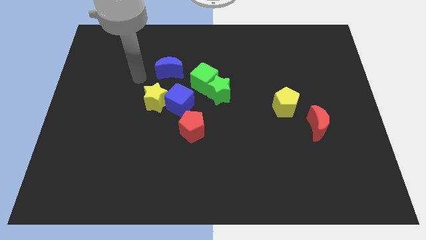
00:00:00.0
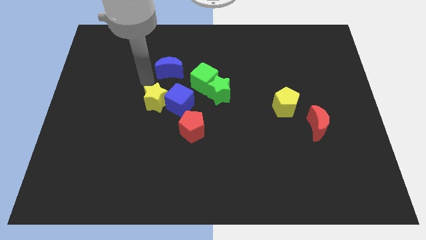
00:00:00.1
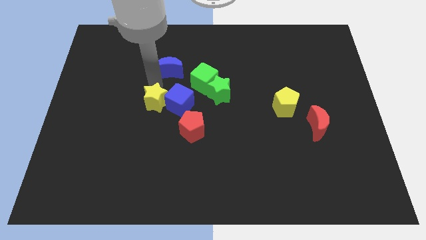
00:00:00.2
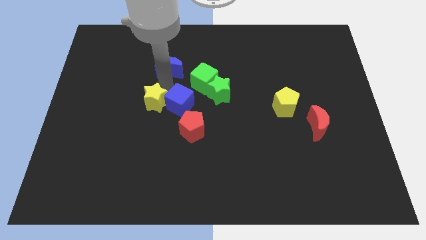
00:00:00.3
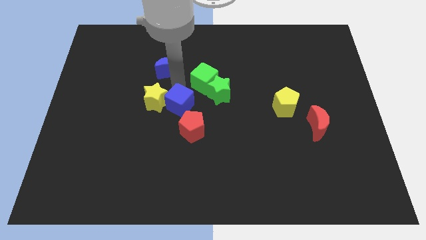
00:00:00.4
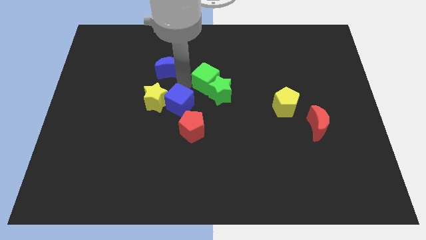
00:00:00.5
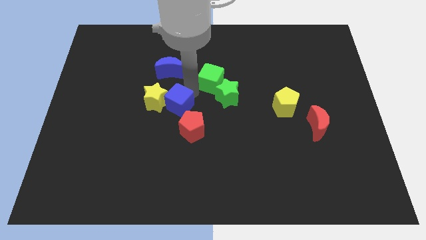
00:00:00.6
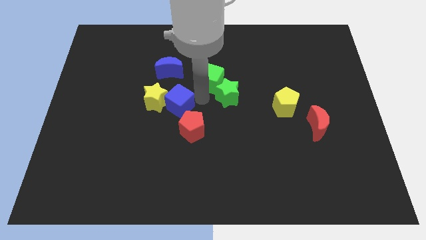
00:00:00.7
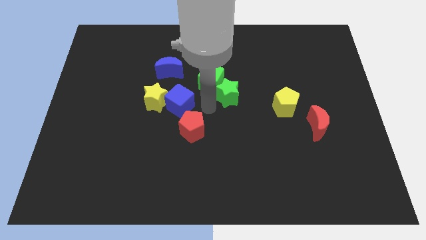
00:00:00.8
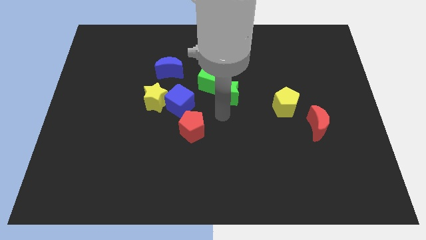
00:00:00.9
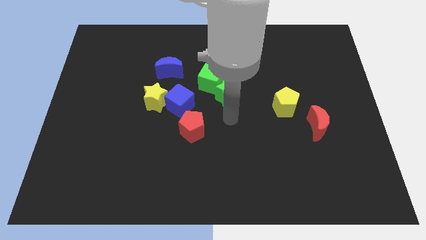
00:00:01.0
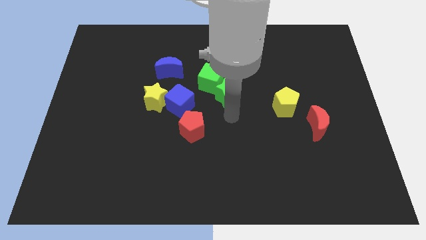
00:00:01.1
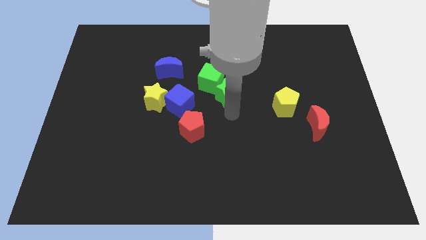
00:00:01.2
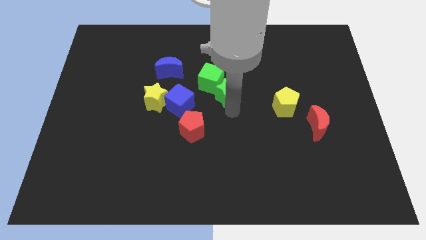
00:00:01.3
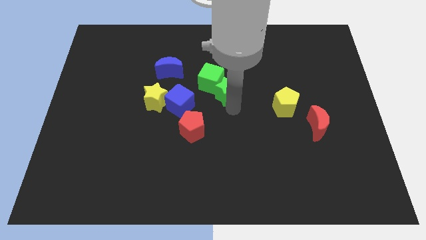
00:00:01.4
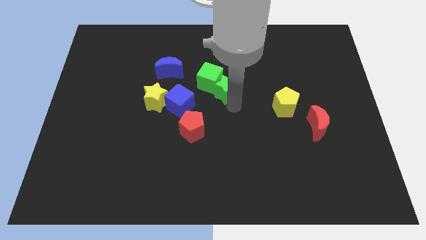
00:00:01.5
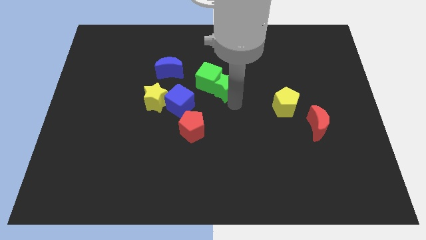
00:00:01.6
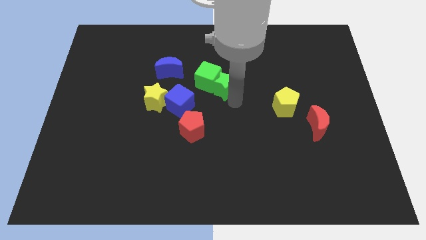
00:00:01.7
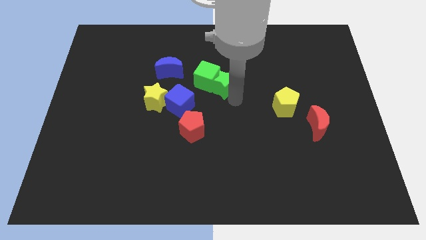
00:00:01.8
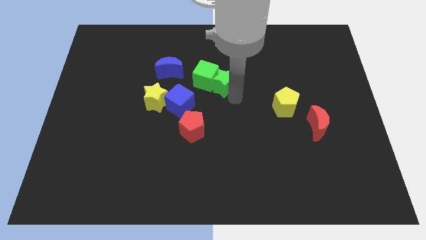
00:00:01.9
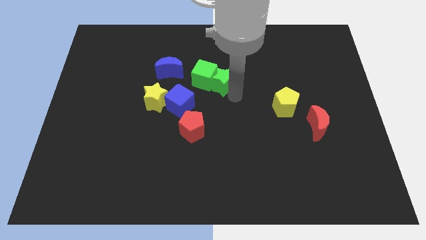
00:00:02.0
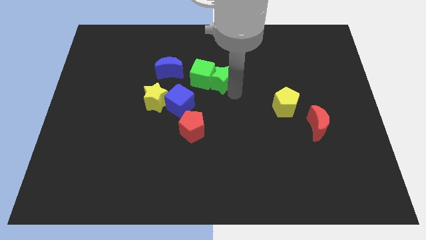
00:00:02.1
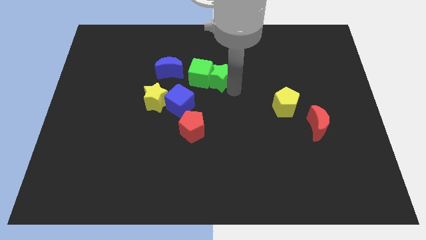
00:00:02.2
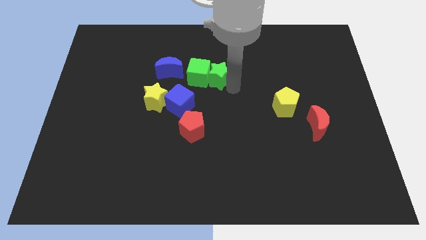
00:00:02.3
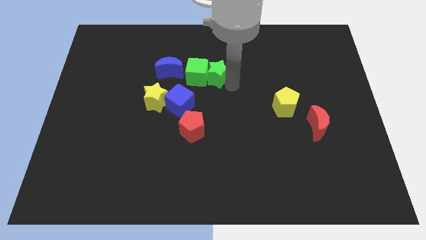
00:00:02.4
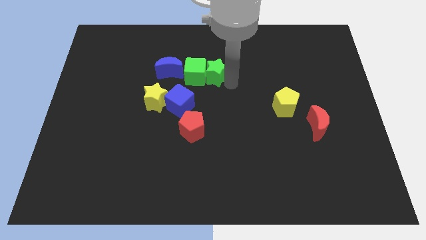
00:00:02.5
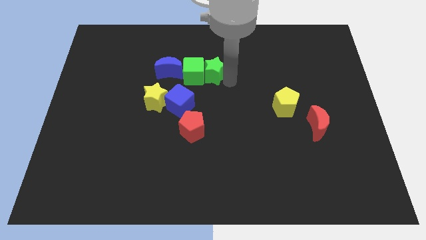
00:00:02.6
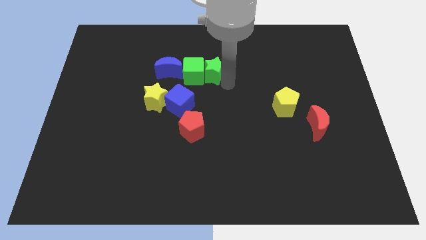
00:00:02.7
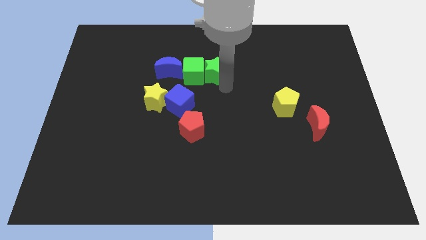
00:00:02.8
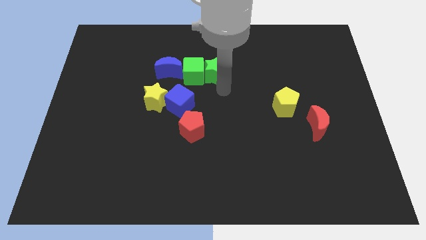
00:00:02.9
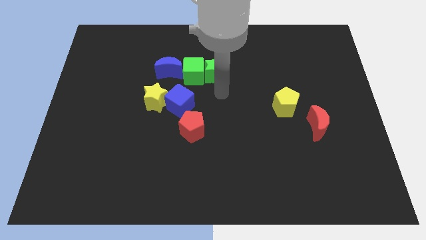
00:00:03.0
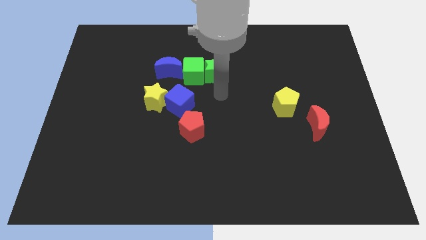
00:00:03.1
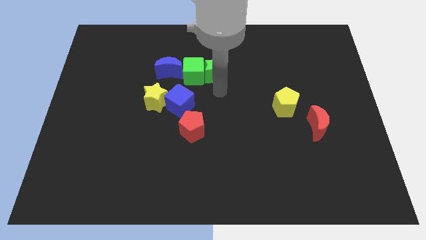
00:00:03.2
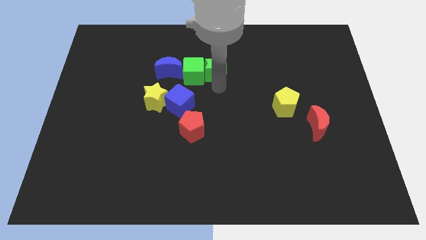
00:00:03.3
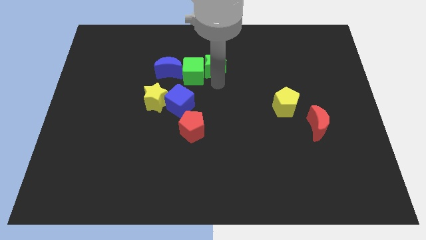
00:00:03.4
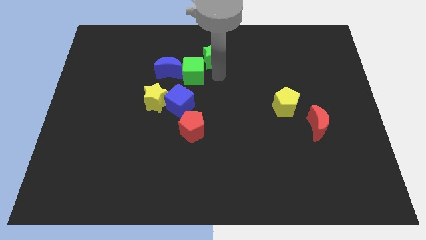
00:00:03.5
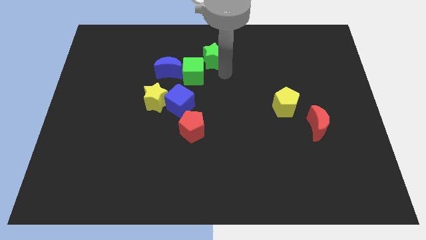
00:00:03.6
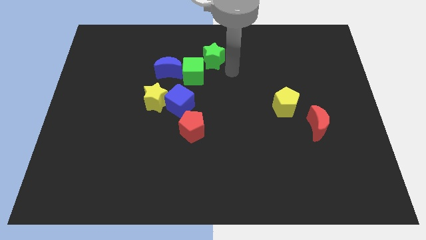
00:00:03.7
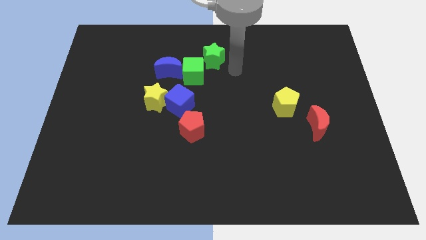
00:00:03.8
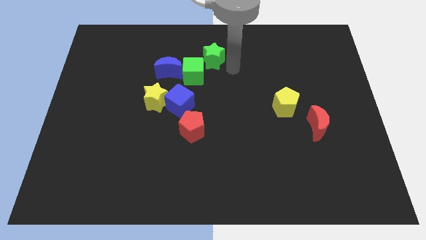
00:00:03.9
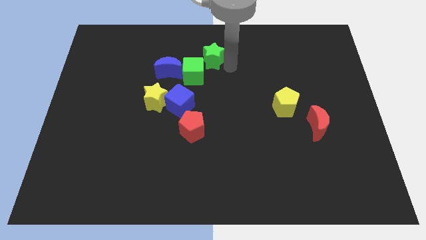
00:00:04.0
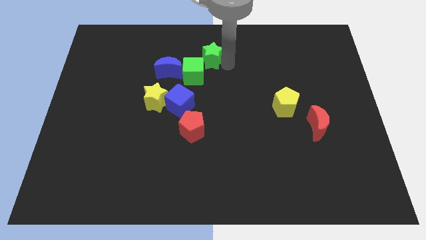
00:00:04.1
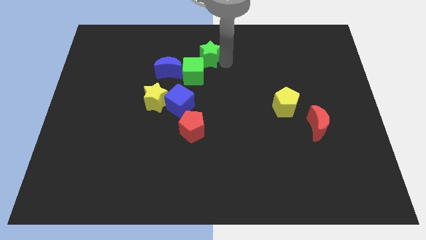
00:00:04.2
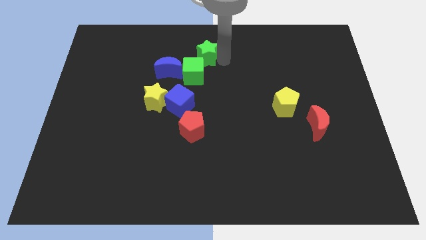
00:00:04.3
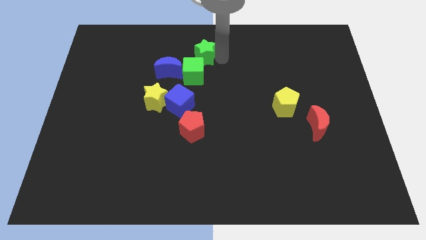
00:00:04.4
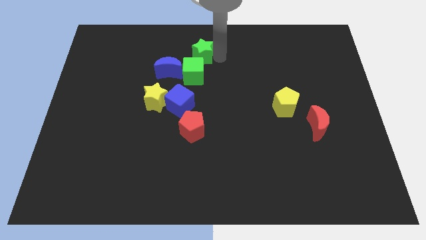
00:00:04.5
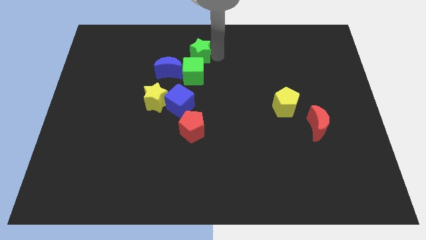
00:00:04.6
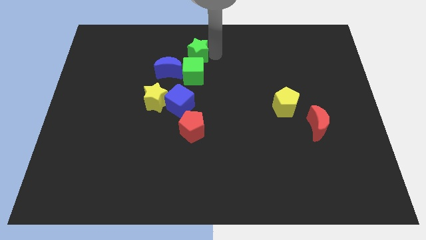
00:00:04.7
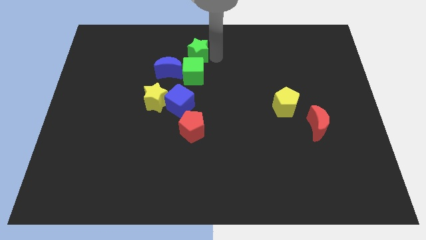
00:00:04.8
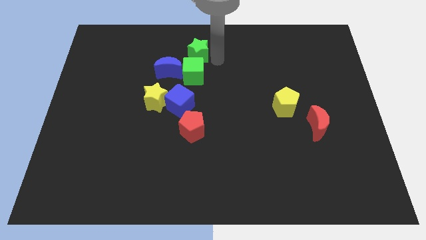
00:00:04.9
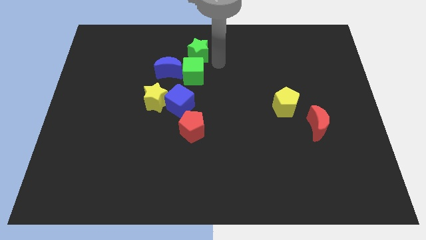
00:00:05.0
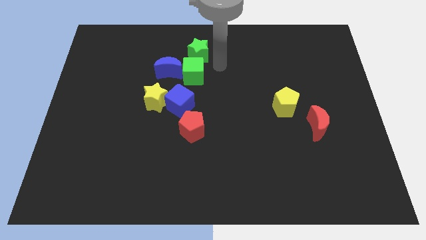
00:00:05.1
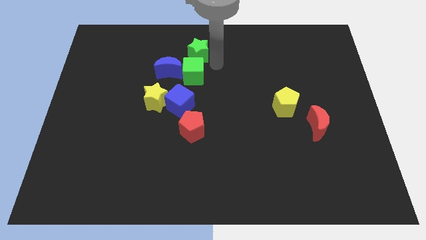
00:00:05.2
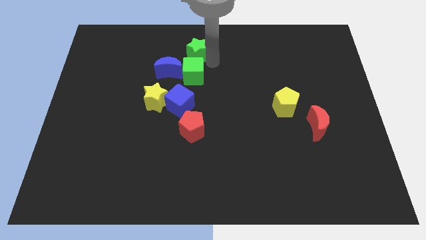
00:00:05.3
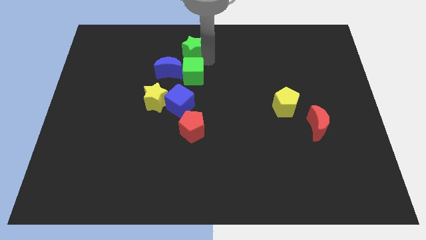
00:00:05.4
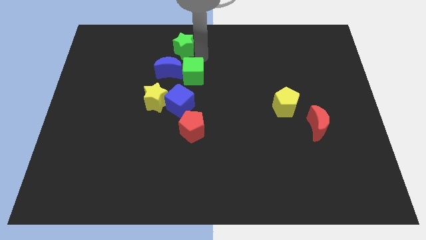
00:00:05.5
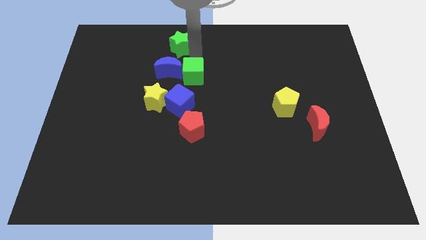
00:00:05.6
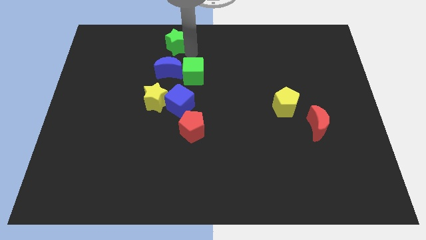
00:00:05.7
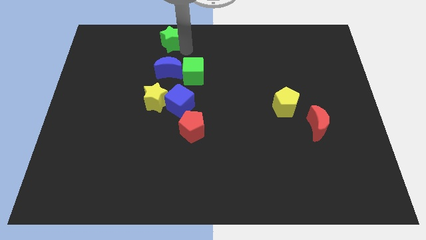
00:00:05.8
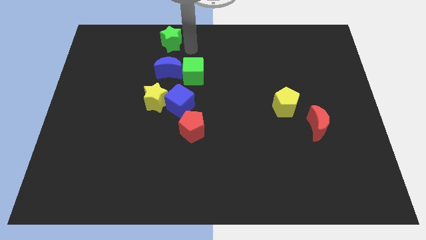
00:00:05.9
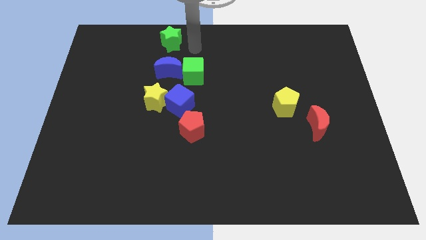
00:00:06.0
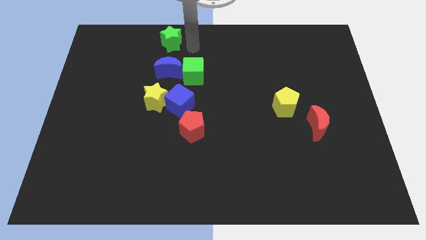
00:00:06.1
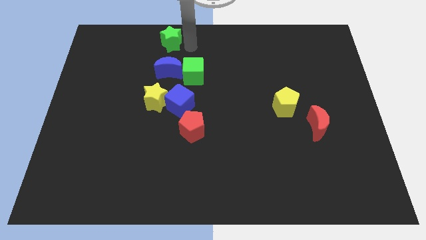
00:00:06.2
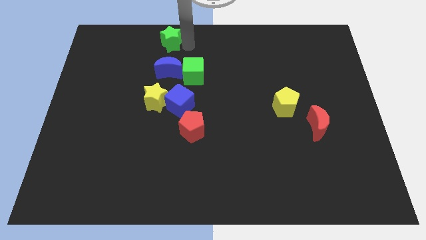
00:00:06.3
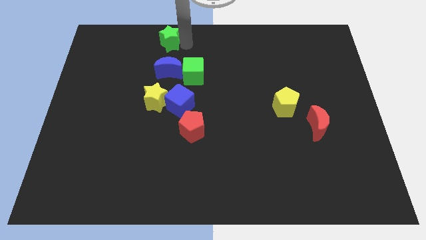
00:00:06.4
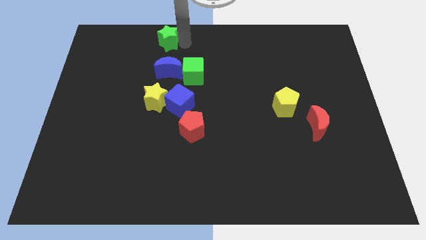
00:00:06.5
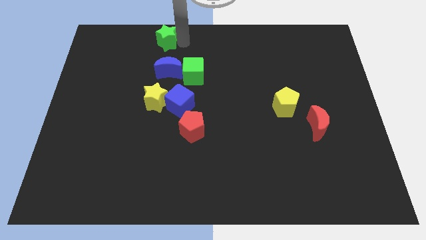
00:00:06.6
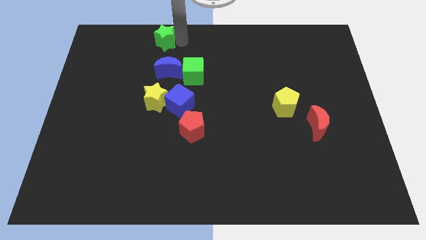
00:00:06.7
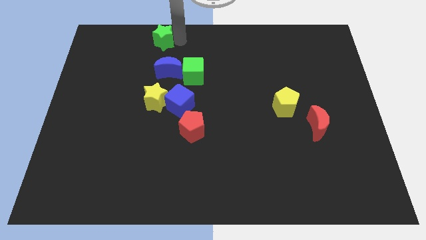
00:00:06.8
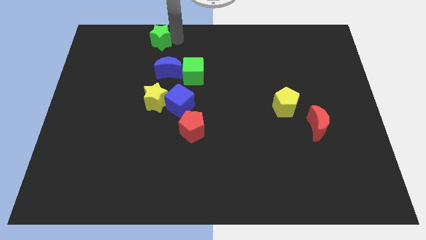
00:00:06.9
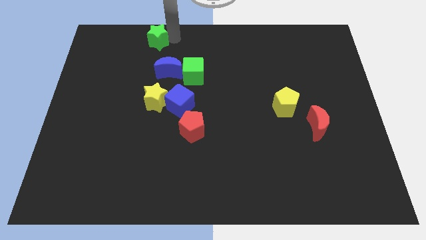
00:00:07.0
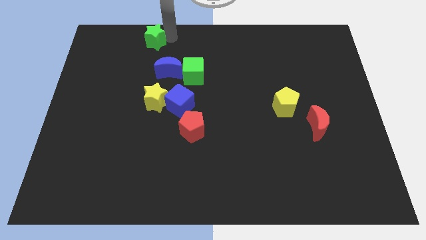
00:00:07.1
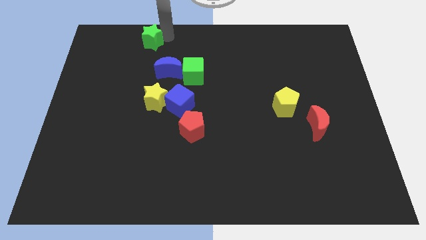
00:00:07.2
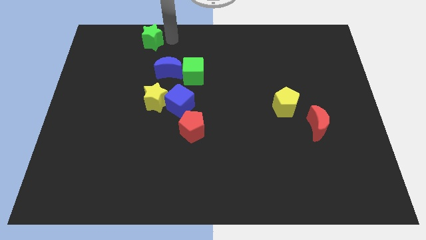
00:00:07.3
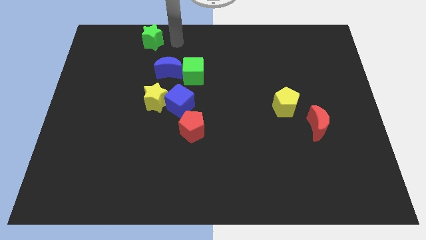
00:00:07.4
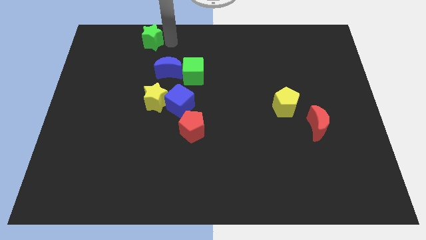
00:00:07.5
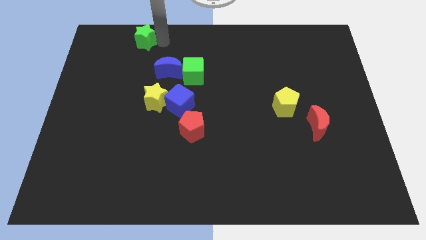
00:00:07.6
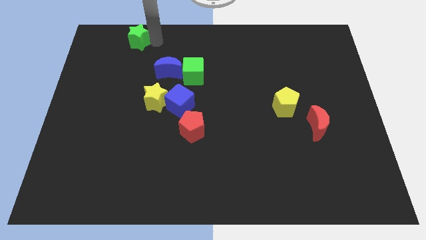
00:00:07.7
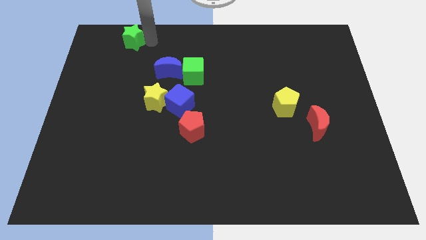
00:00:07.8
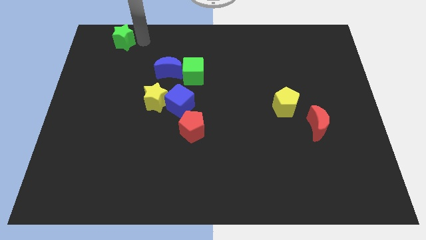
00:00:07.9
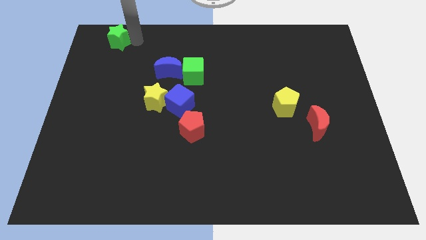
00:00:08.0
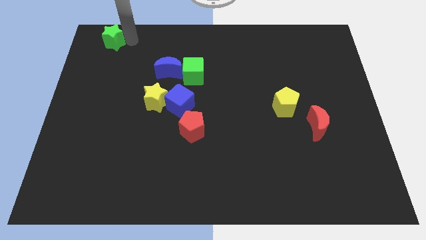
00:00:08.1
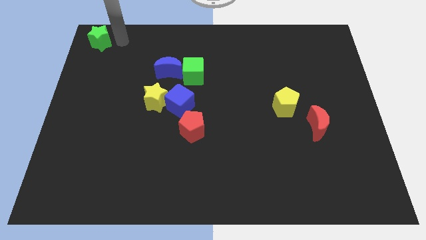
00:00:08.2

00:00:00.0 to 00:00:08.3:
push the green star to the upper left corner
